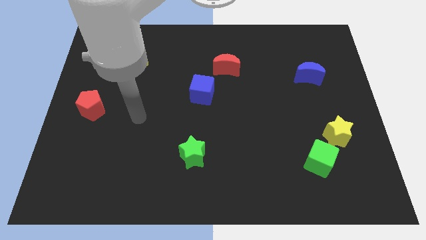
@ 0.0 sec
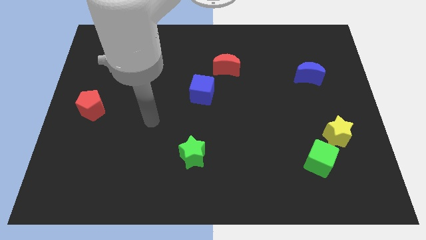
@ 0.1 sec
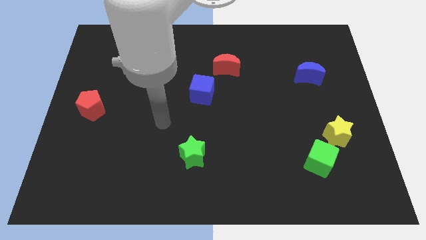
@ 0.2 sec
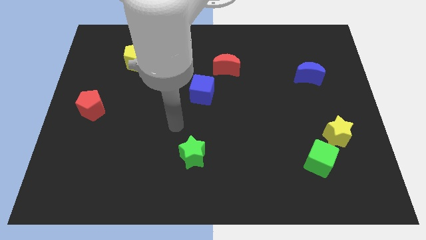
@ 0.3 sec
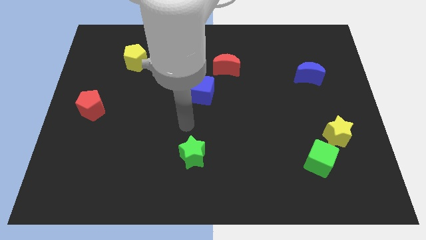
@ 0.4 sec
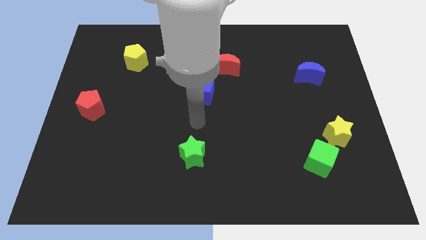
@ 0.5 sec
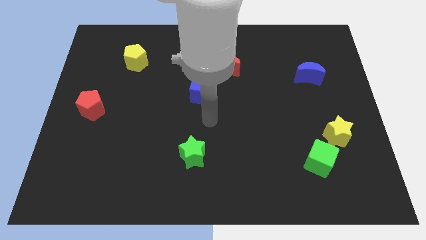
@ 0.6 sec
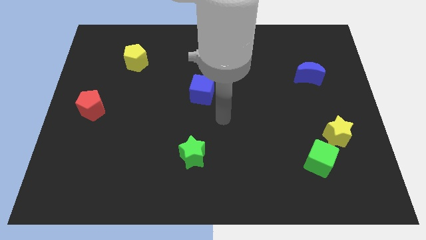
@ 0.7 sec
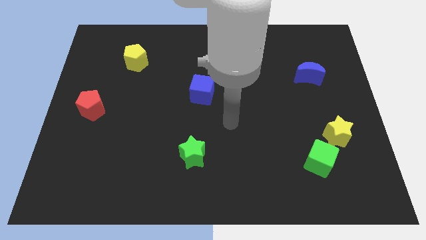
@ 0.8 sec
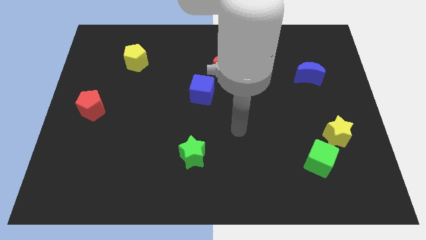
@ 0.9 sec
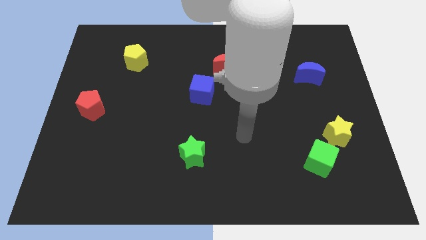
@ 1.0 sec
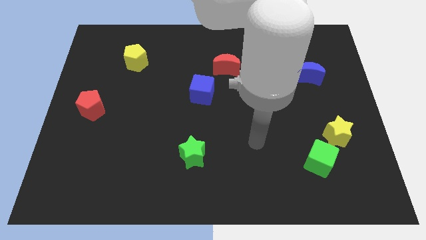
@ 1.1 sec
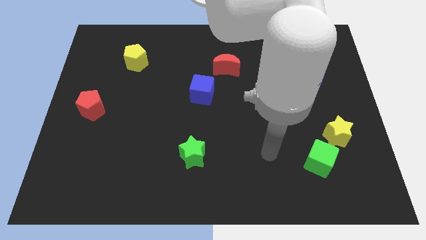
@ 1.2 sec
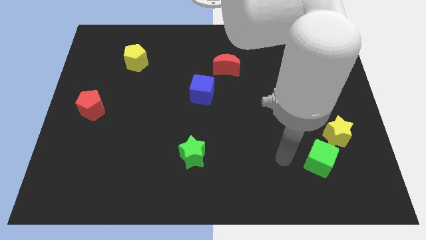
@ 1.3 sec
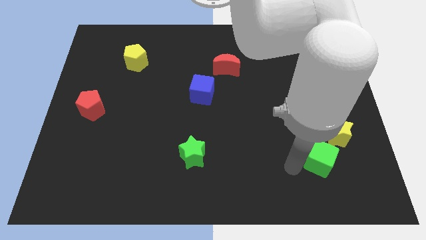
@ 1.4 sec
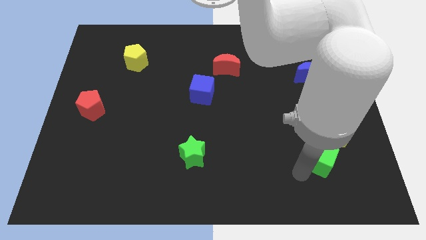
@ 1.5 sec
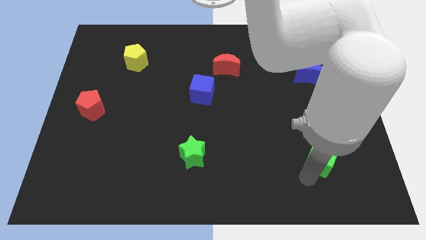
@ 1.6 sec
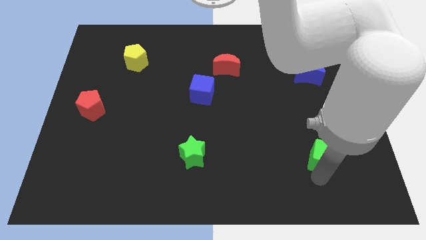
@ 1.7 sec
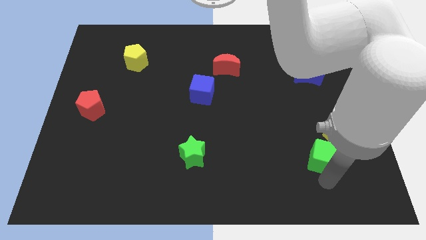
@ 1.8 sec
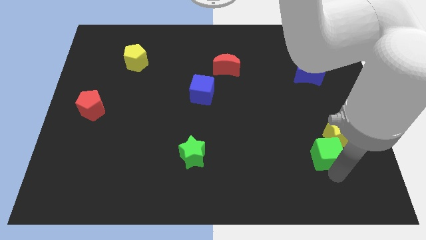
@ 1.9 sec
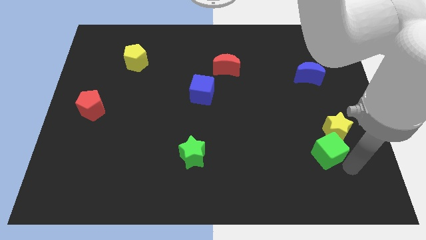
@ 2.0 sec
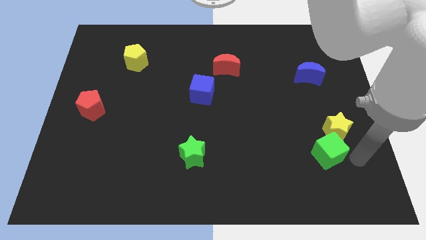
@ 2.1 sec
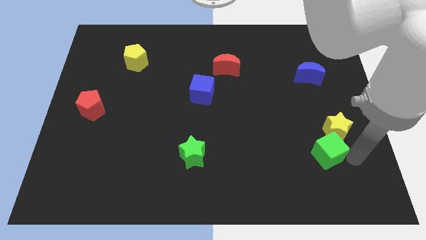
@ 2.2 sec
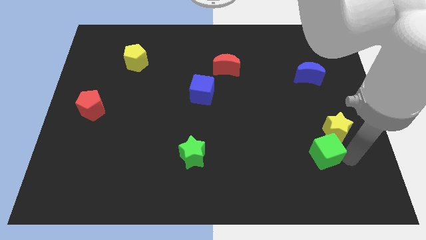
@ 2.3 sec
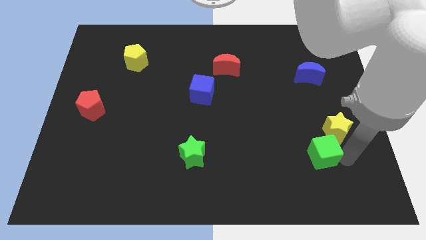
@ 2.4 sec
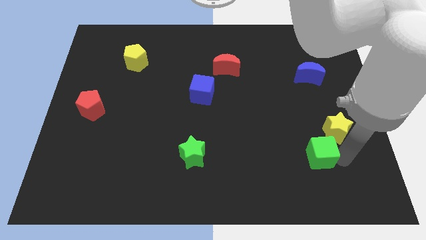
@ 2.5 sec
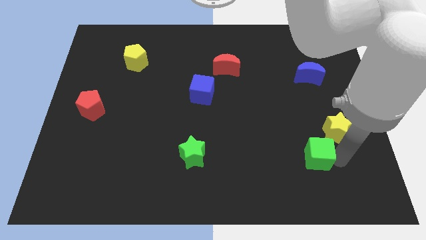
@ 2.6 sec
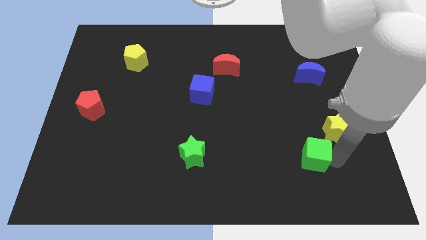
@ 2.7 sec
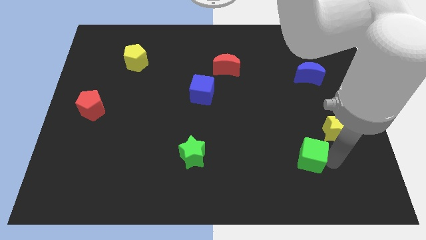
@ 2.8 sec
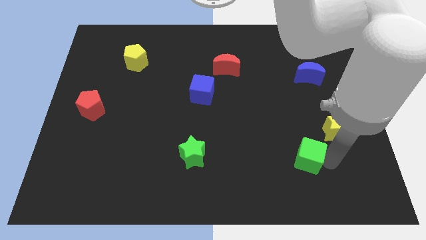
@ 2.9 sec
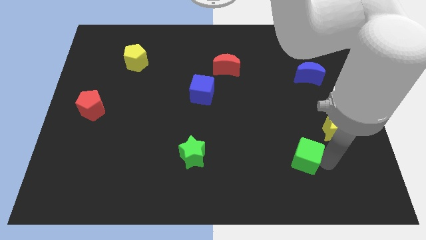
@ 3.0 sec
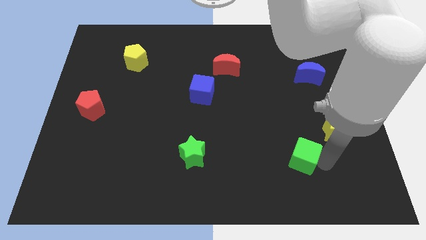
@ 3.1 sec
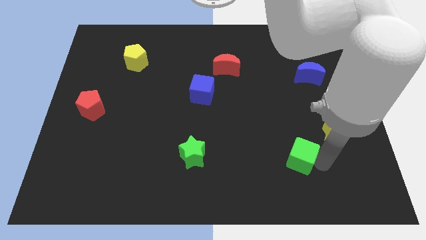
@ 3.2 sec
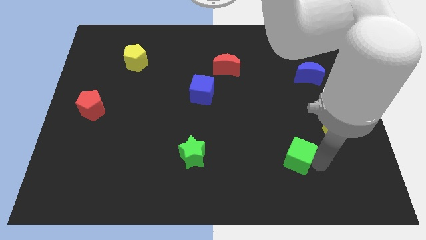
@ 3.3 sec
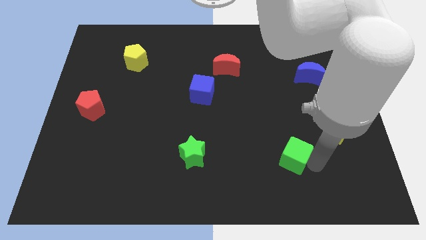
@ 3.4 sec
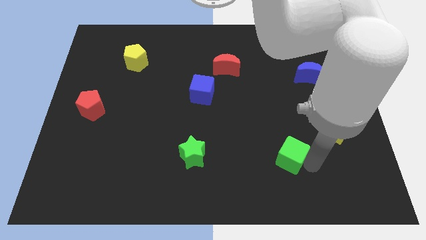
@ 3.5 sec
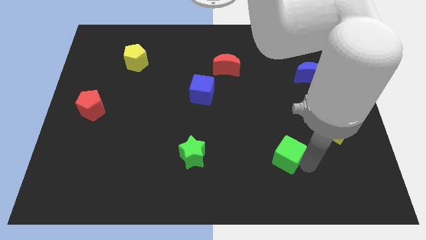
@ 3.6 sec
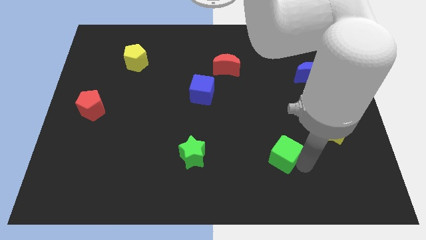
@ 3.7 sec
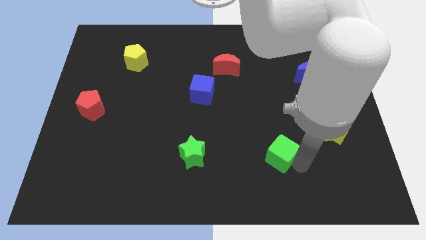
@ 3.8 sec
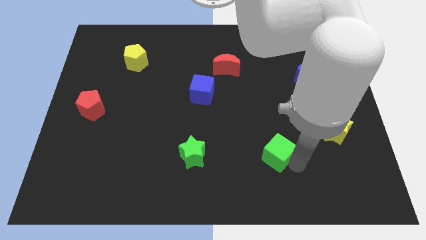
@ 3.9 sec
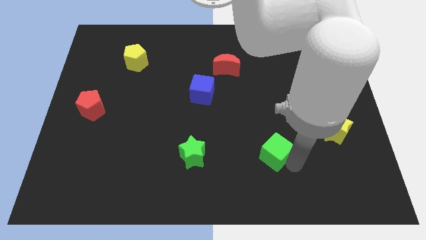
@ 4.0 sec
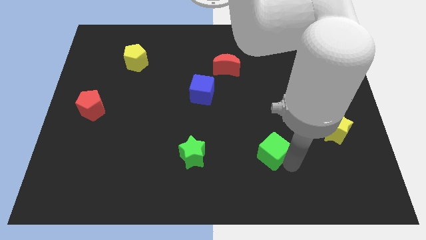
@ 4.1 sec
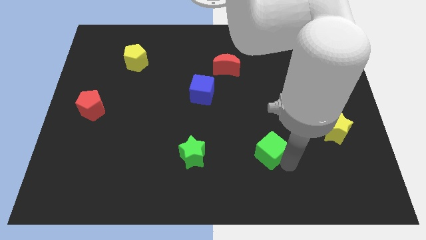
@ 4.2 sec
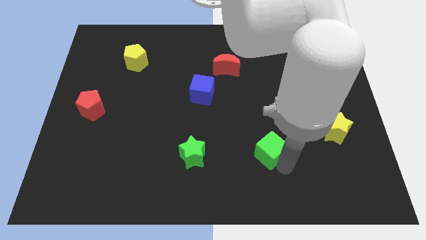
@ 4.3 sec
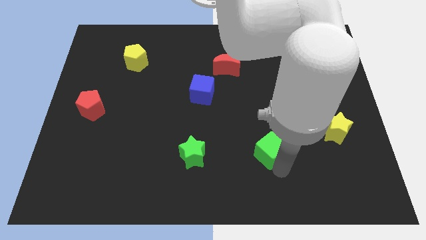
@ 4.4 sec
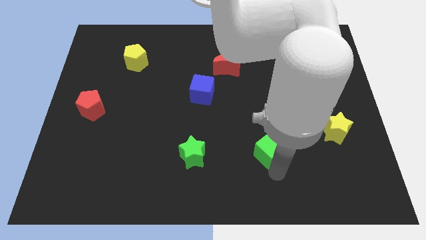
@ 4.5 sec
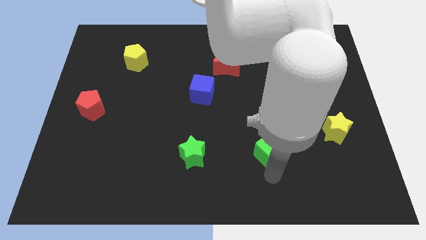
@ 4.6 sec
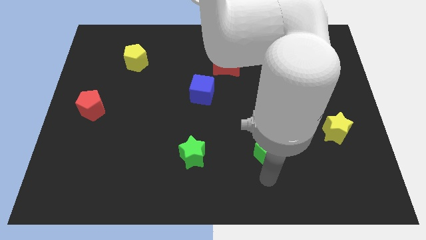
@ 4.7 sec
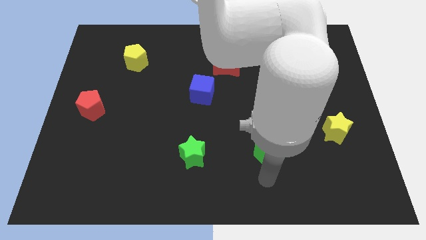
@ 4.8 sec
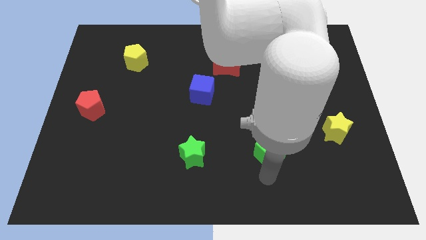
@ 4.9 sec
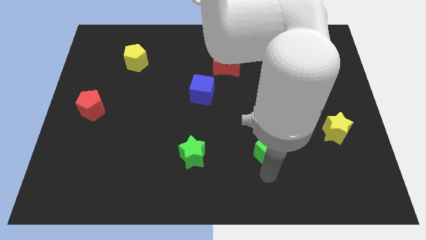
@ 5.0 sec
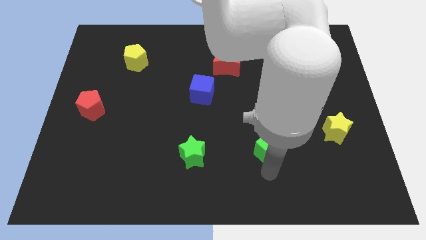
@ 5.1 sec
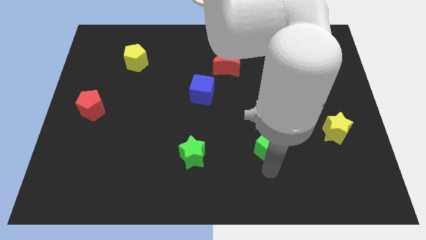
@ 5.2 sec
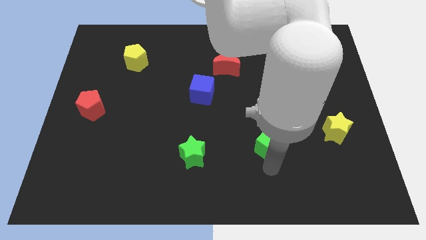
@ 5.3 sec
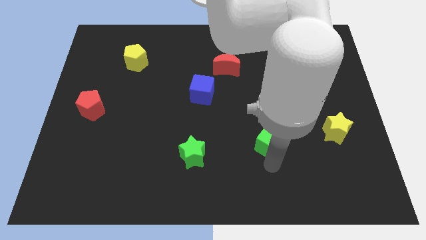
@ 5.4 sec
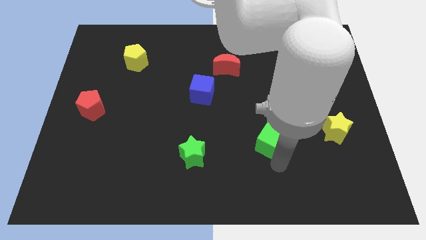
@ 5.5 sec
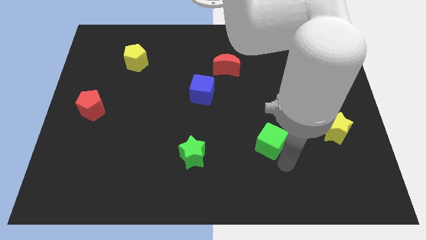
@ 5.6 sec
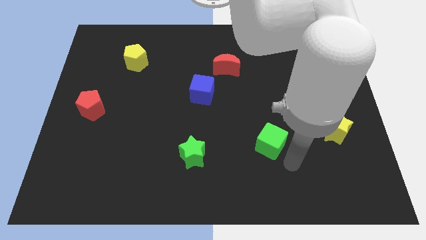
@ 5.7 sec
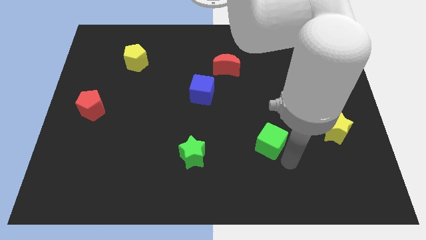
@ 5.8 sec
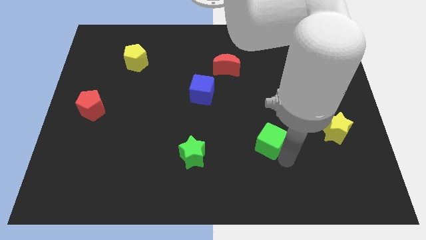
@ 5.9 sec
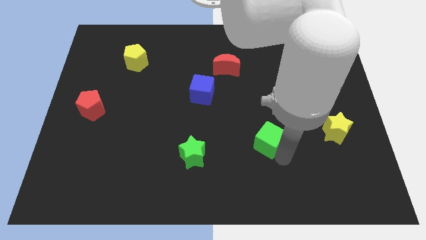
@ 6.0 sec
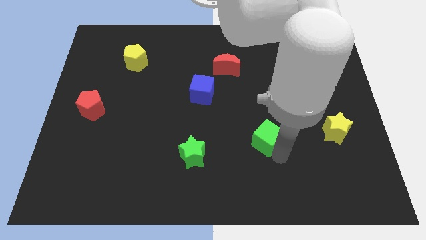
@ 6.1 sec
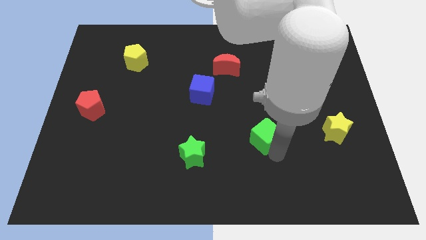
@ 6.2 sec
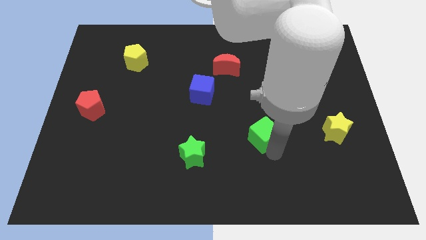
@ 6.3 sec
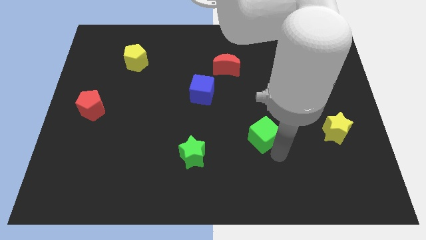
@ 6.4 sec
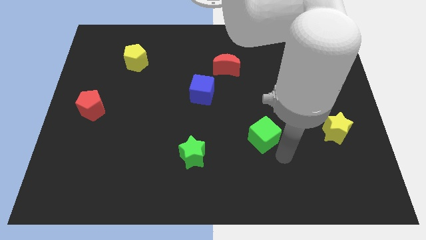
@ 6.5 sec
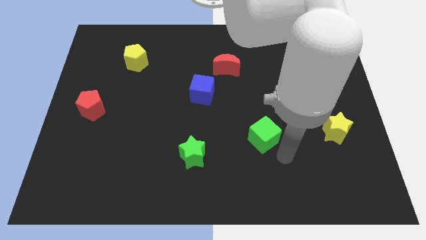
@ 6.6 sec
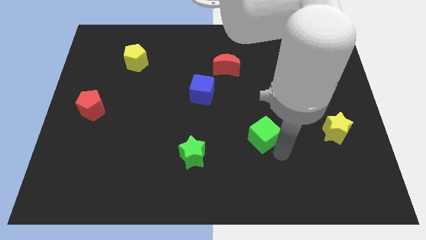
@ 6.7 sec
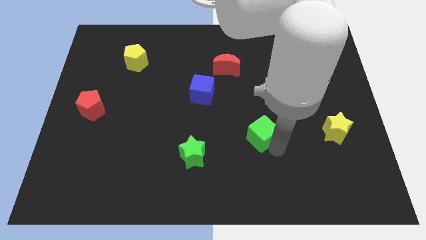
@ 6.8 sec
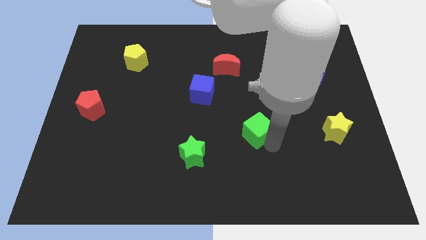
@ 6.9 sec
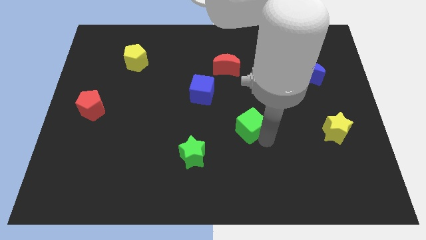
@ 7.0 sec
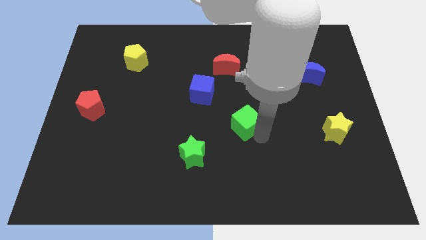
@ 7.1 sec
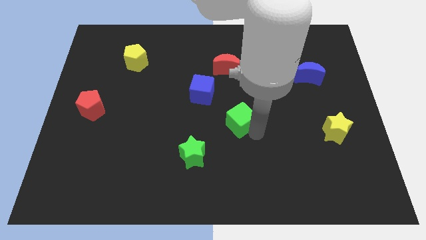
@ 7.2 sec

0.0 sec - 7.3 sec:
move the green cube diagonally down and to the right of the blue cube

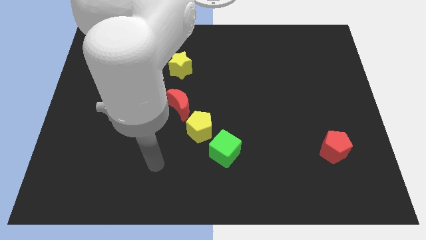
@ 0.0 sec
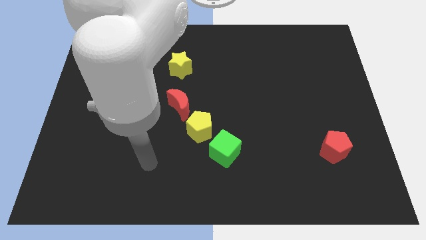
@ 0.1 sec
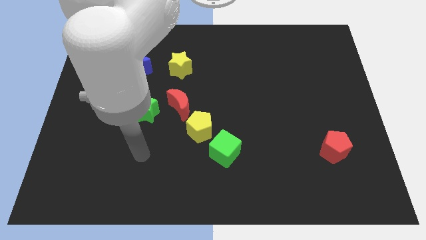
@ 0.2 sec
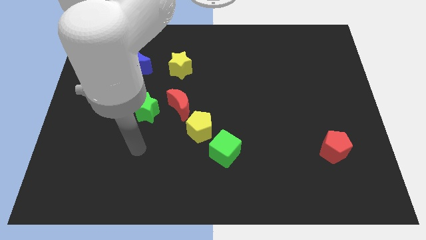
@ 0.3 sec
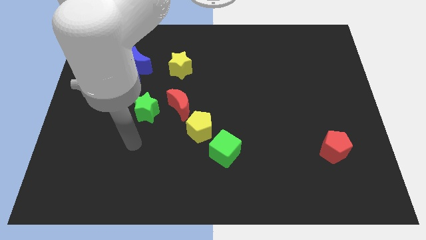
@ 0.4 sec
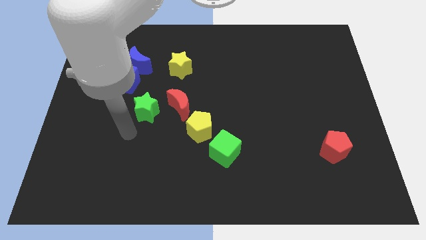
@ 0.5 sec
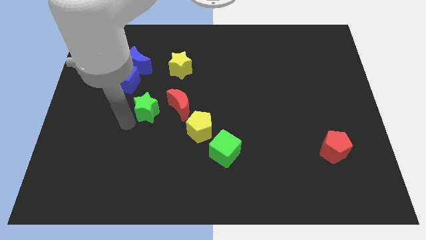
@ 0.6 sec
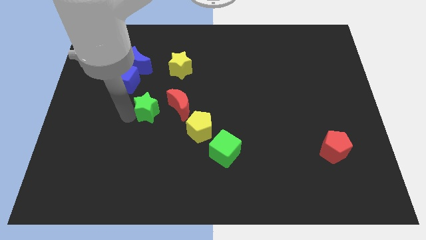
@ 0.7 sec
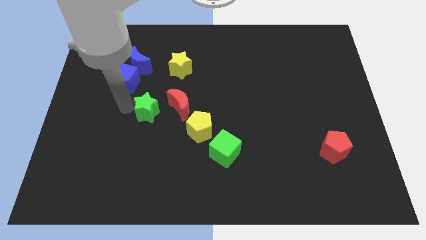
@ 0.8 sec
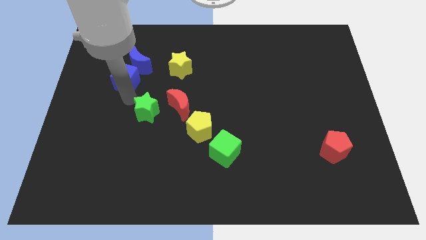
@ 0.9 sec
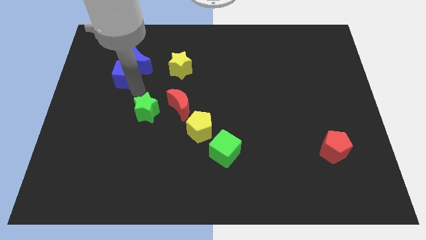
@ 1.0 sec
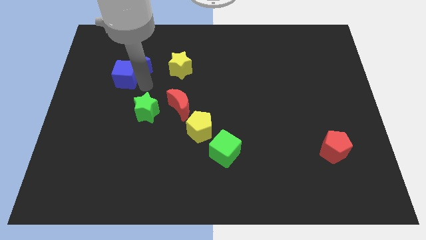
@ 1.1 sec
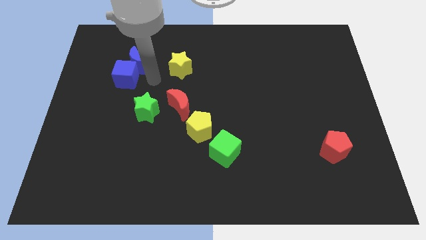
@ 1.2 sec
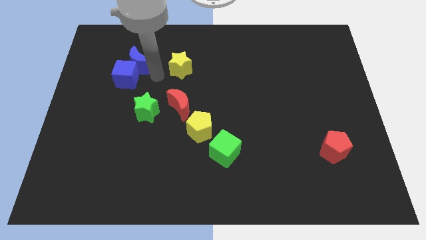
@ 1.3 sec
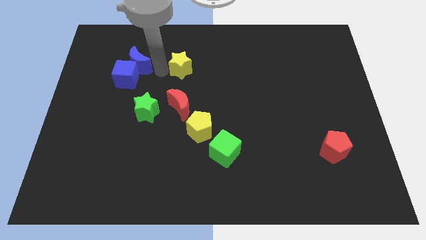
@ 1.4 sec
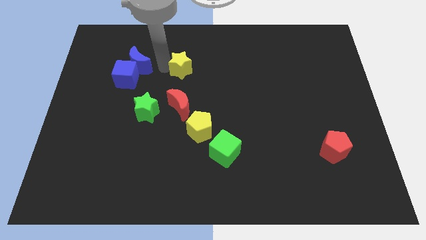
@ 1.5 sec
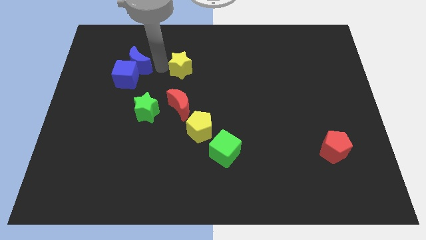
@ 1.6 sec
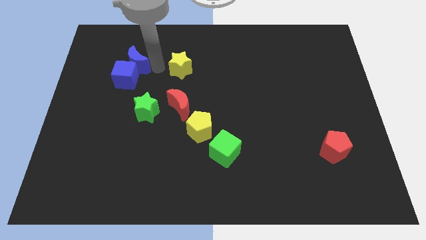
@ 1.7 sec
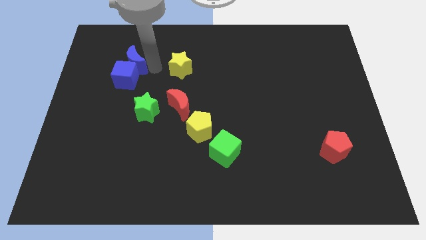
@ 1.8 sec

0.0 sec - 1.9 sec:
put the blue moon diagonally up and to the left of the blue cube
